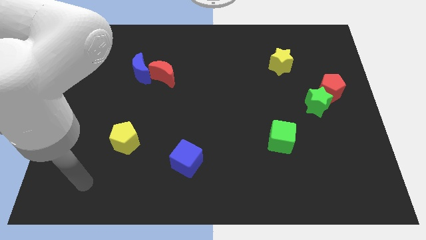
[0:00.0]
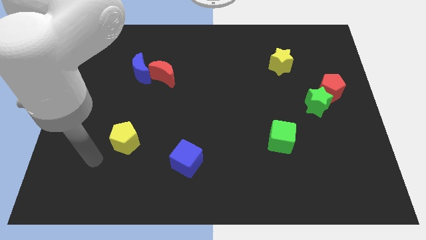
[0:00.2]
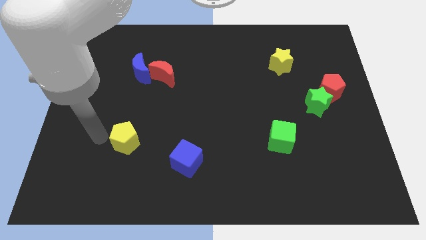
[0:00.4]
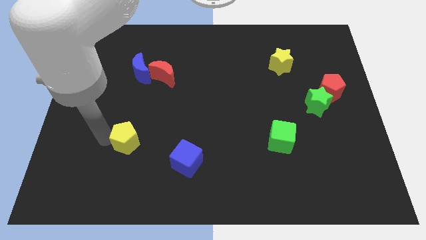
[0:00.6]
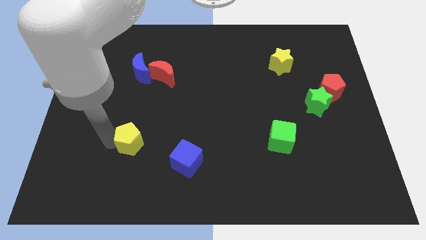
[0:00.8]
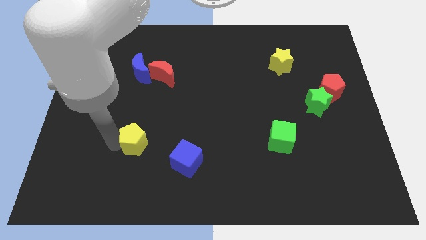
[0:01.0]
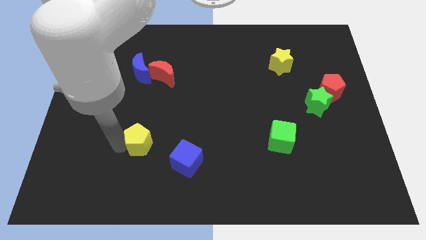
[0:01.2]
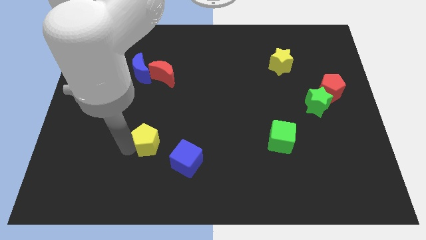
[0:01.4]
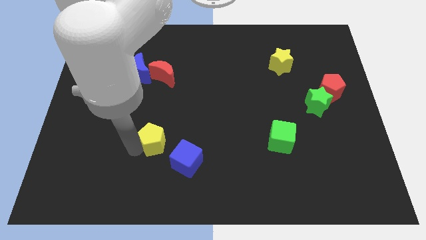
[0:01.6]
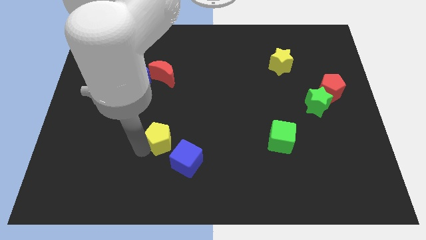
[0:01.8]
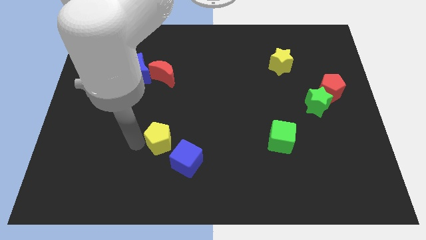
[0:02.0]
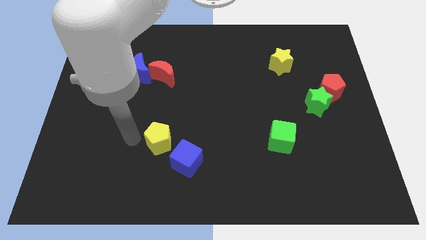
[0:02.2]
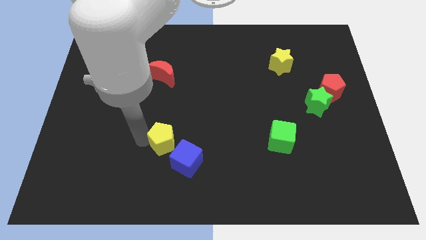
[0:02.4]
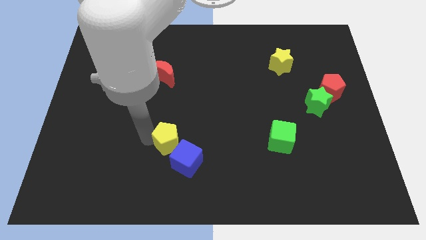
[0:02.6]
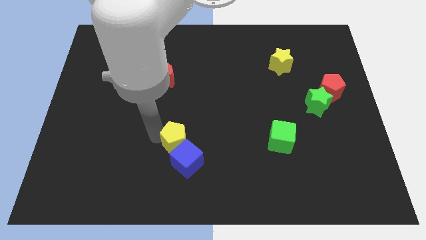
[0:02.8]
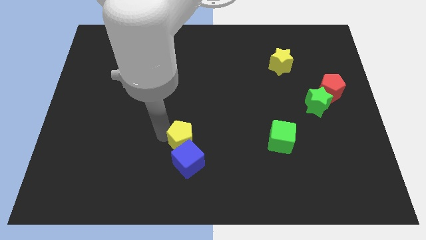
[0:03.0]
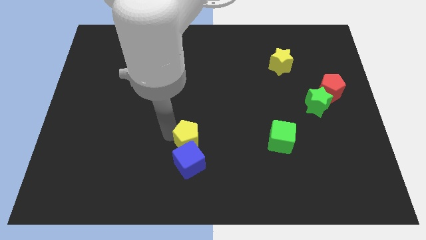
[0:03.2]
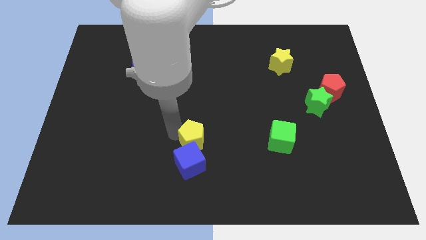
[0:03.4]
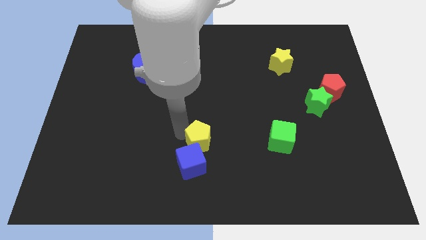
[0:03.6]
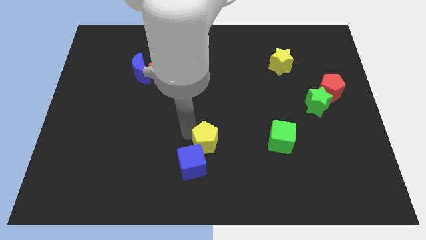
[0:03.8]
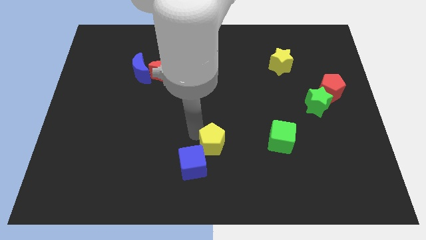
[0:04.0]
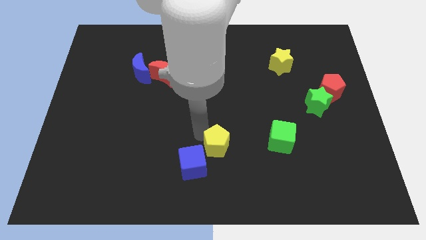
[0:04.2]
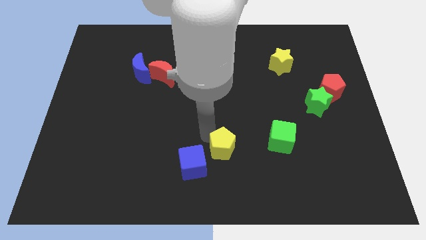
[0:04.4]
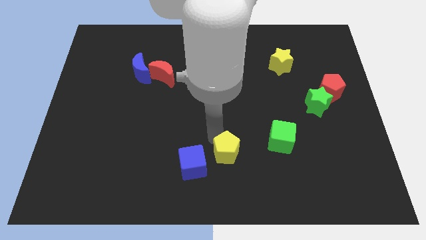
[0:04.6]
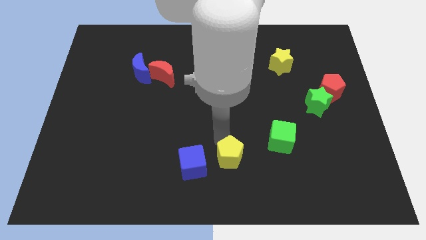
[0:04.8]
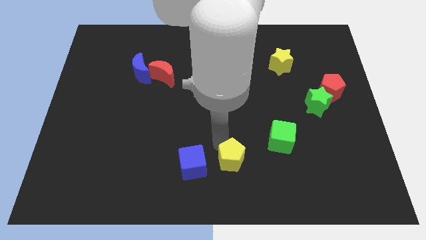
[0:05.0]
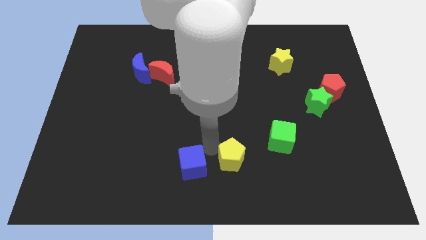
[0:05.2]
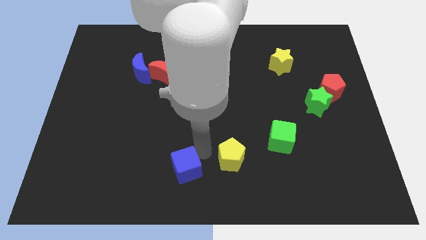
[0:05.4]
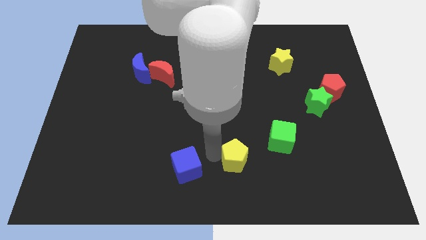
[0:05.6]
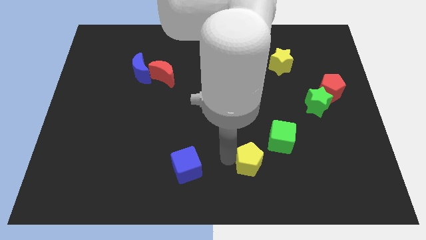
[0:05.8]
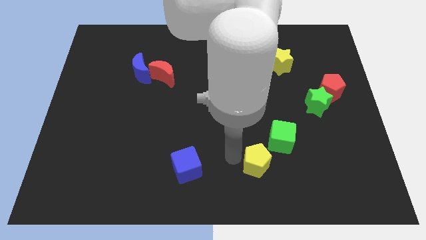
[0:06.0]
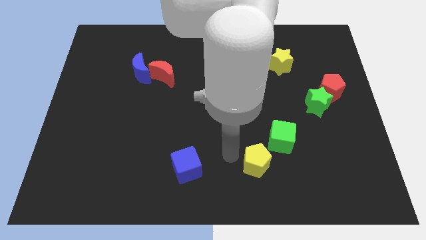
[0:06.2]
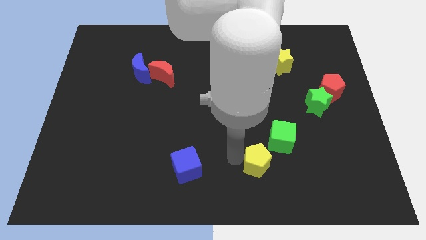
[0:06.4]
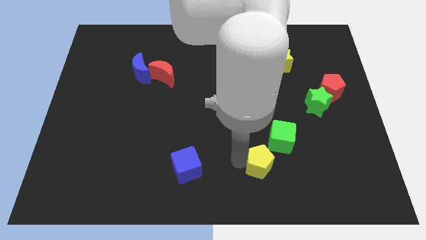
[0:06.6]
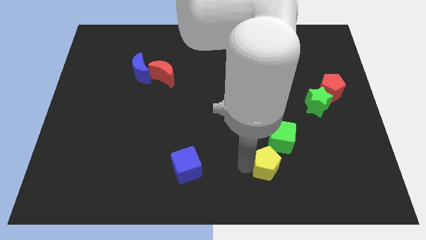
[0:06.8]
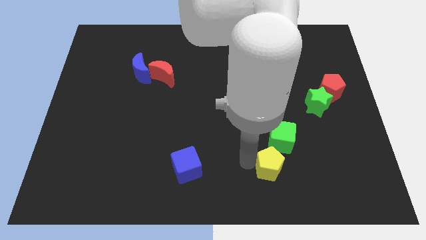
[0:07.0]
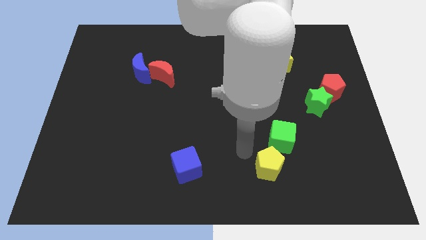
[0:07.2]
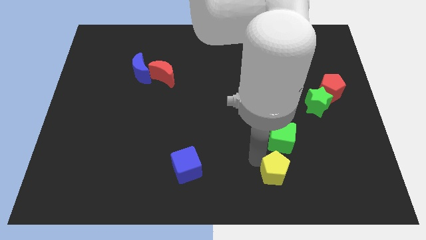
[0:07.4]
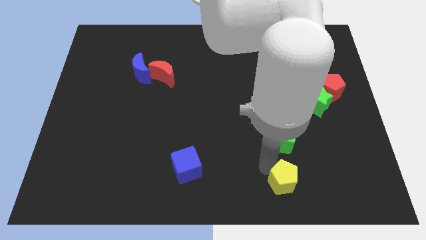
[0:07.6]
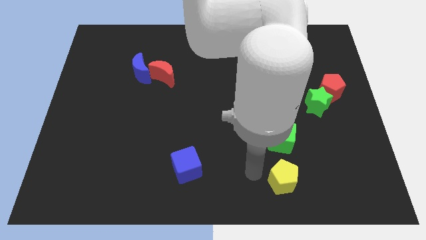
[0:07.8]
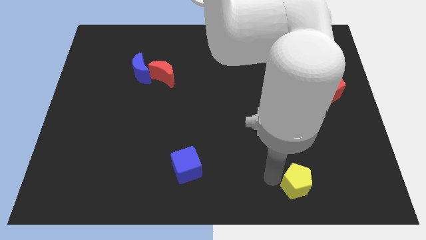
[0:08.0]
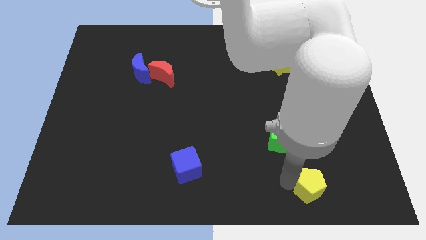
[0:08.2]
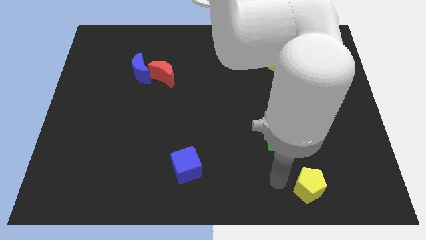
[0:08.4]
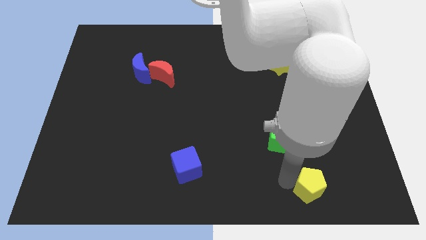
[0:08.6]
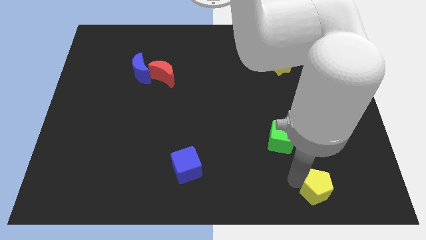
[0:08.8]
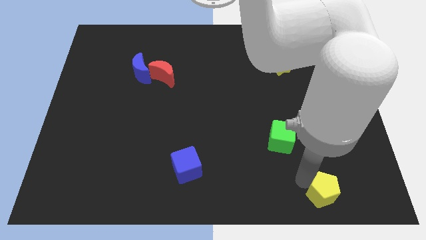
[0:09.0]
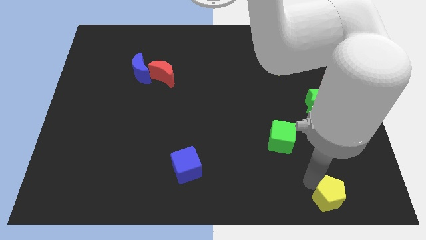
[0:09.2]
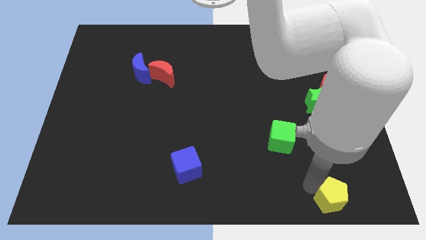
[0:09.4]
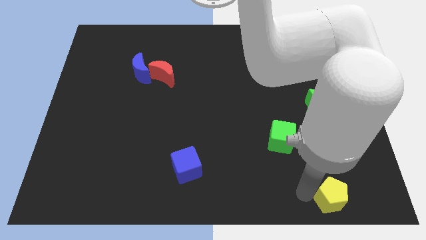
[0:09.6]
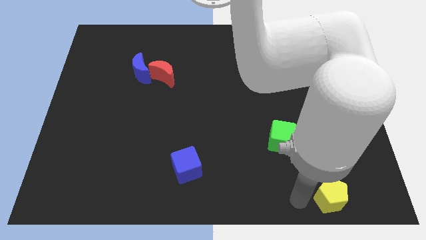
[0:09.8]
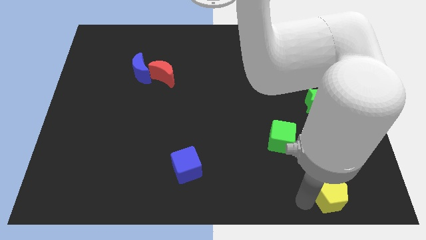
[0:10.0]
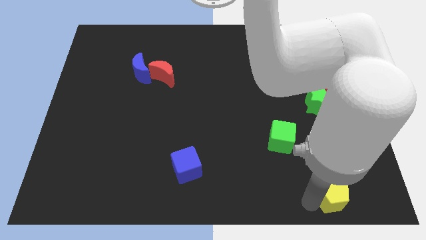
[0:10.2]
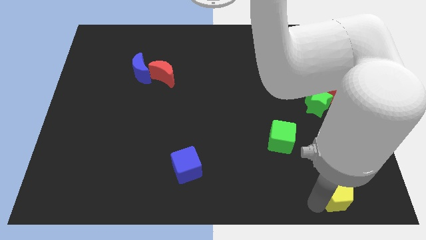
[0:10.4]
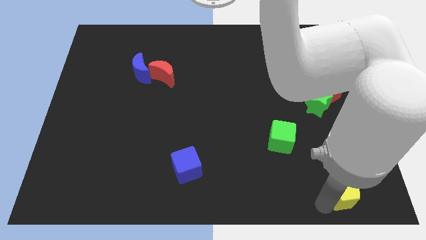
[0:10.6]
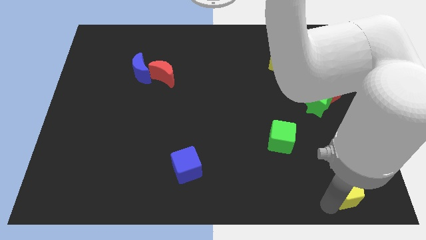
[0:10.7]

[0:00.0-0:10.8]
slide the yellow pentagon to the bottom right
